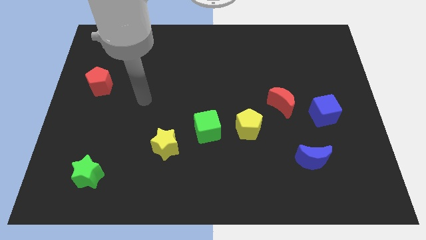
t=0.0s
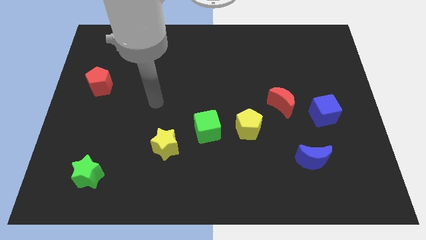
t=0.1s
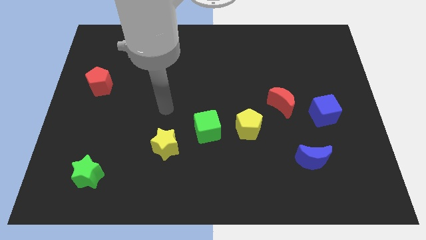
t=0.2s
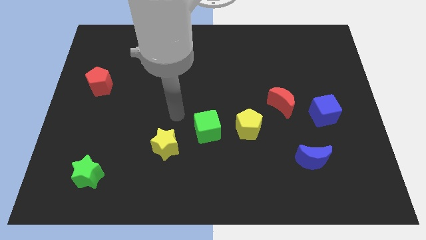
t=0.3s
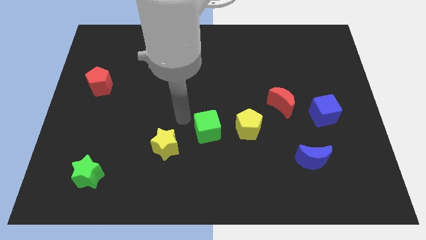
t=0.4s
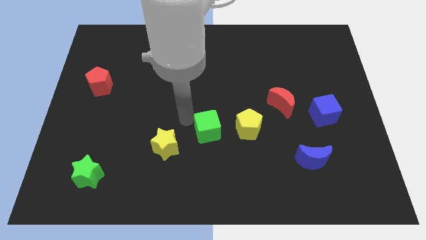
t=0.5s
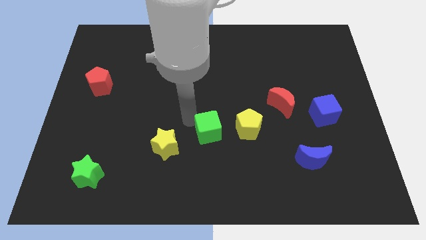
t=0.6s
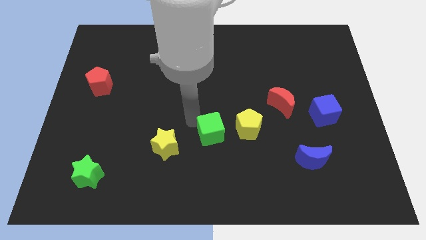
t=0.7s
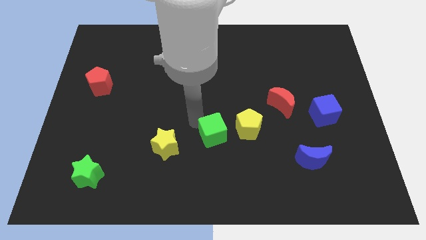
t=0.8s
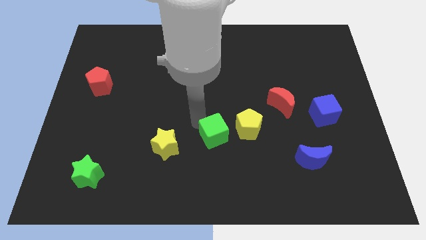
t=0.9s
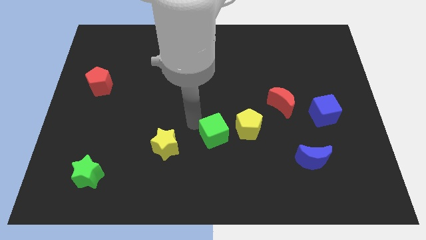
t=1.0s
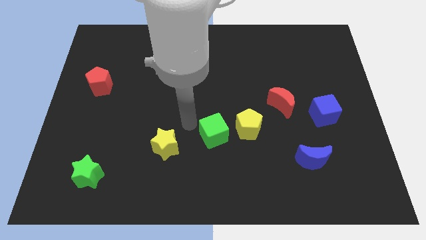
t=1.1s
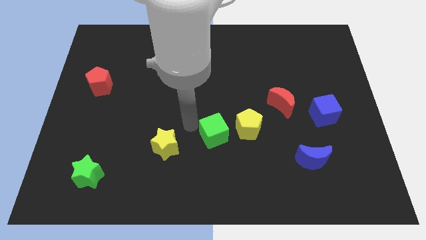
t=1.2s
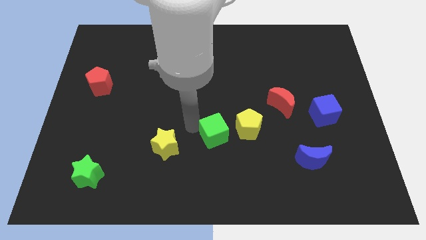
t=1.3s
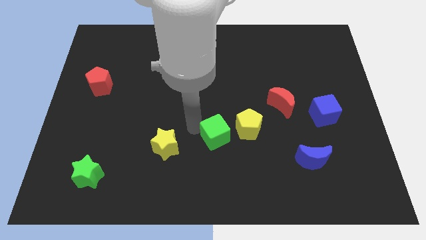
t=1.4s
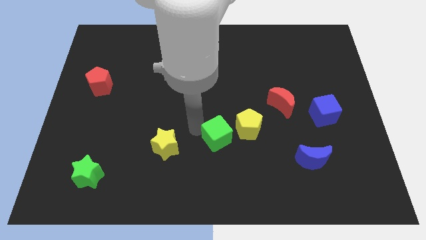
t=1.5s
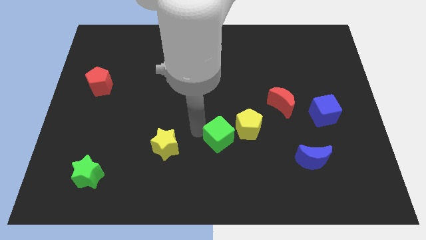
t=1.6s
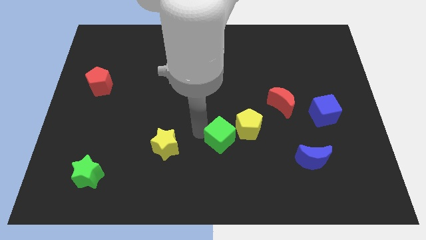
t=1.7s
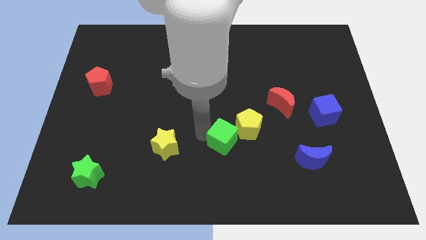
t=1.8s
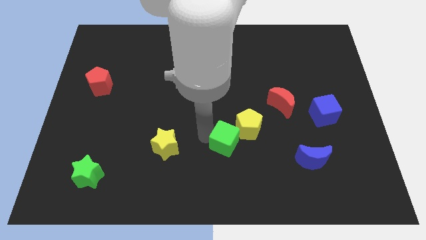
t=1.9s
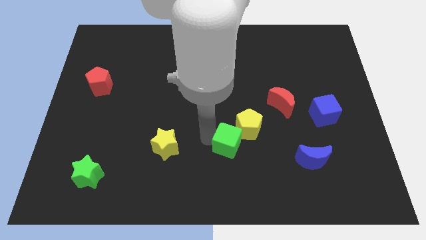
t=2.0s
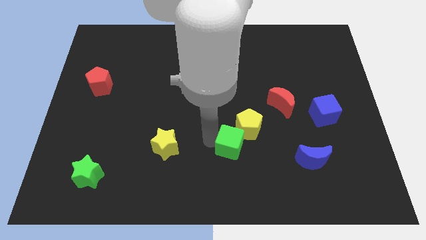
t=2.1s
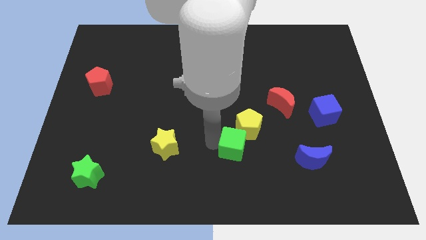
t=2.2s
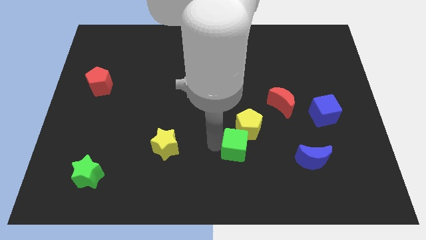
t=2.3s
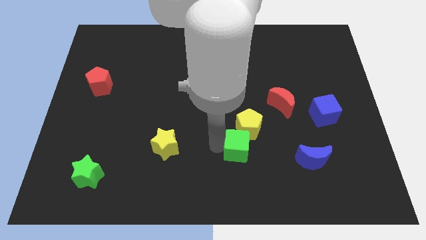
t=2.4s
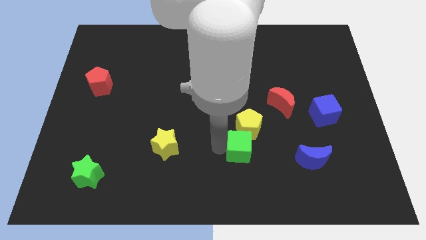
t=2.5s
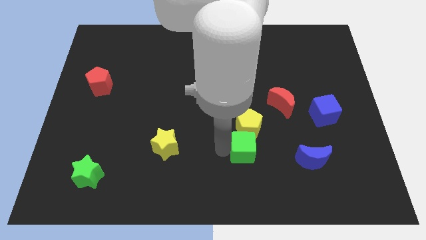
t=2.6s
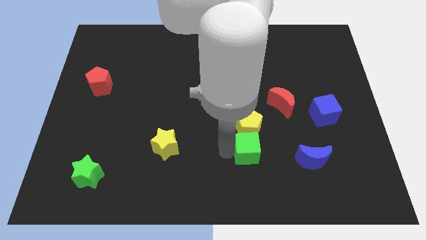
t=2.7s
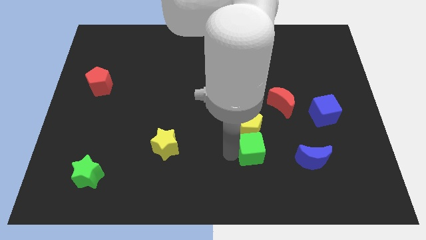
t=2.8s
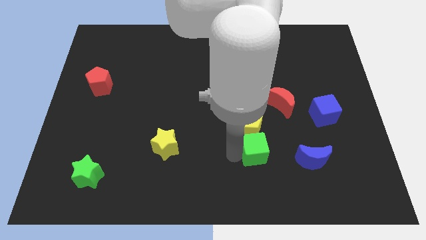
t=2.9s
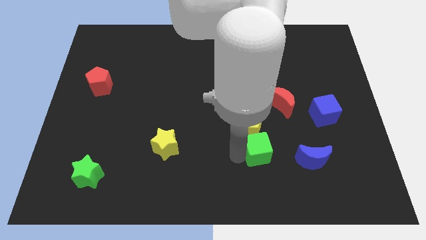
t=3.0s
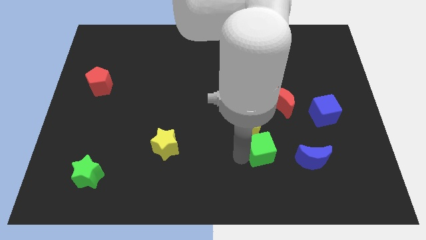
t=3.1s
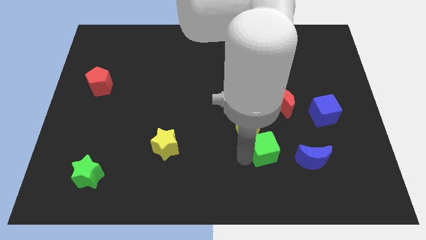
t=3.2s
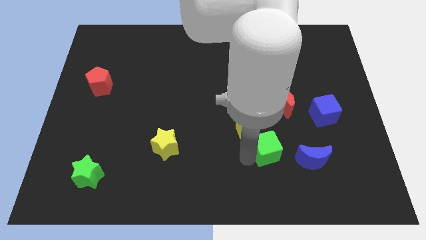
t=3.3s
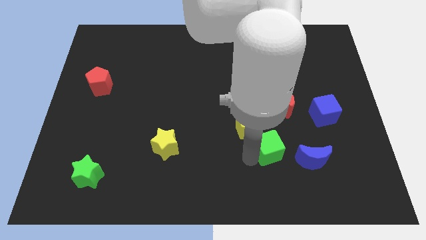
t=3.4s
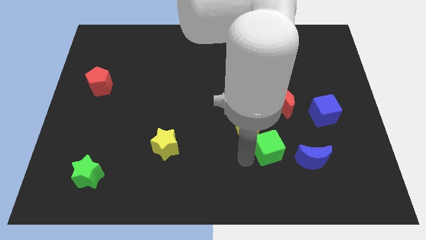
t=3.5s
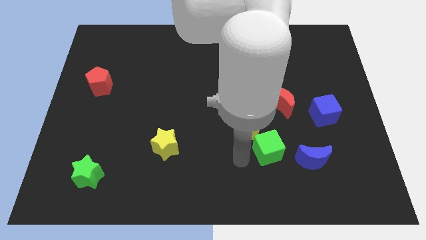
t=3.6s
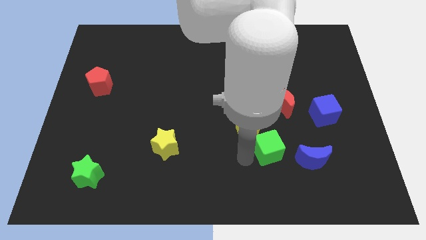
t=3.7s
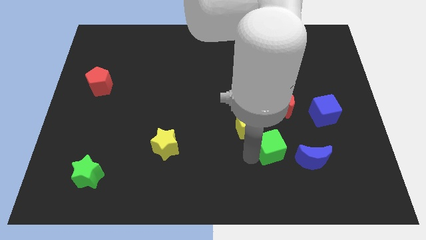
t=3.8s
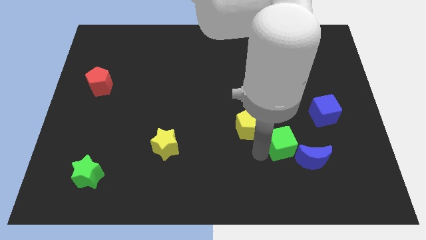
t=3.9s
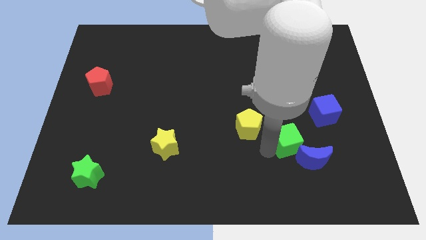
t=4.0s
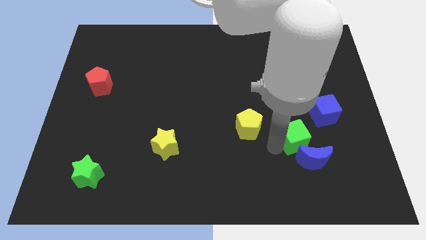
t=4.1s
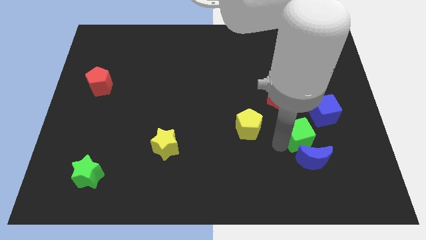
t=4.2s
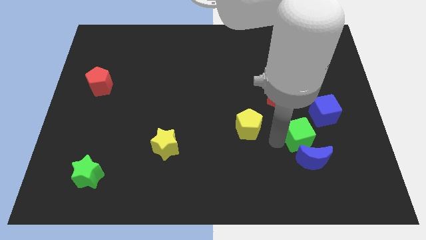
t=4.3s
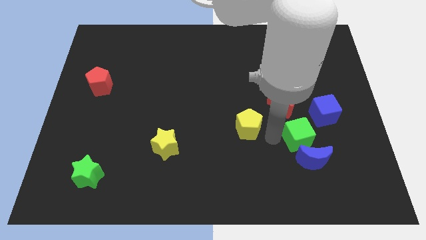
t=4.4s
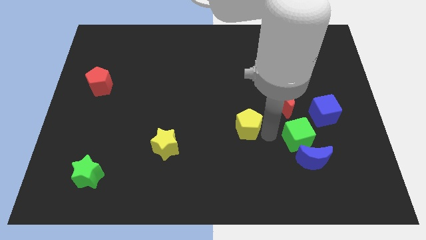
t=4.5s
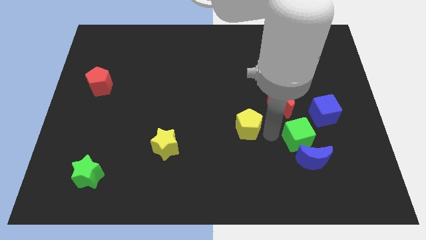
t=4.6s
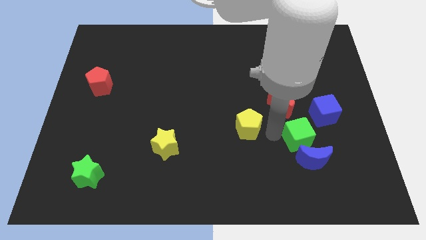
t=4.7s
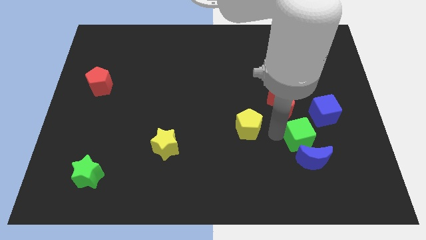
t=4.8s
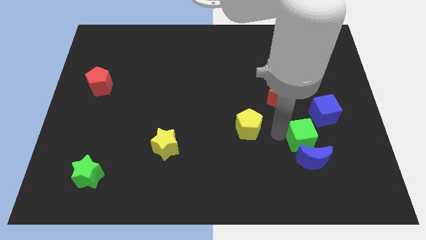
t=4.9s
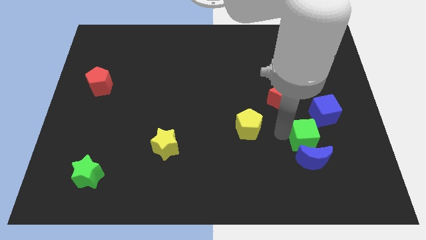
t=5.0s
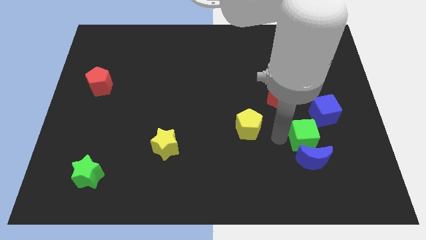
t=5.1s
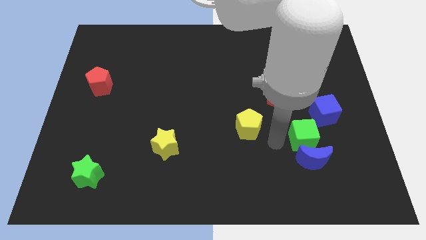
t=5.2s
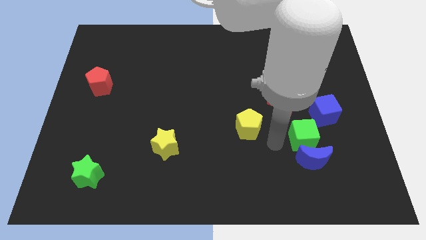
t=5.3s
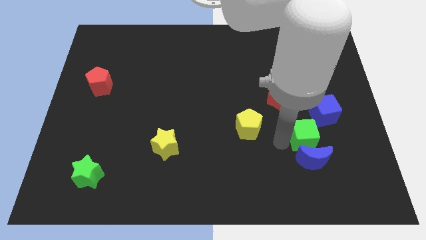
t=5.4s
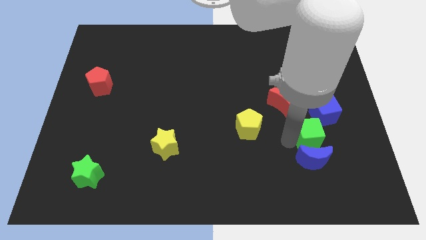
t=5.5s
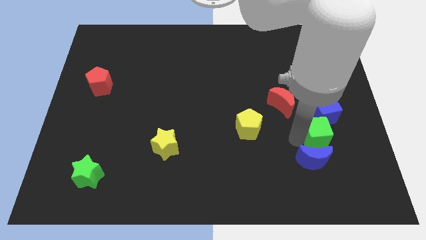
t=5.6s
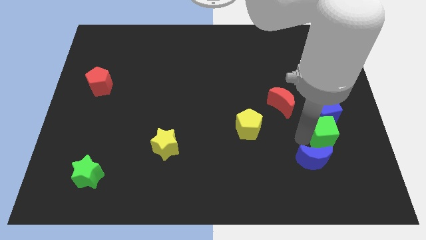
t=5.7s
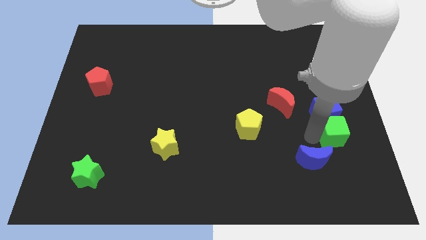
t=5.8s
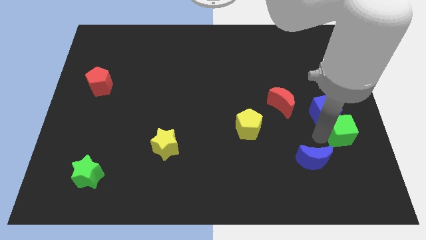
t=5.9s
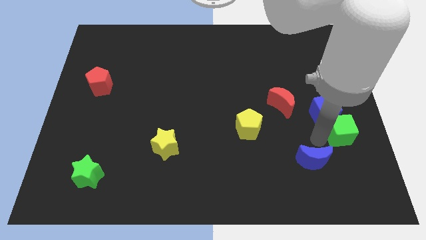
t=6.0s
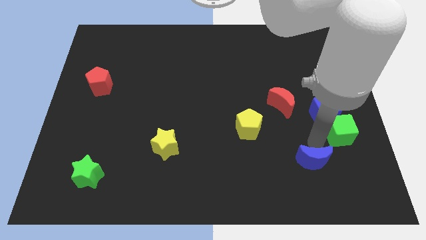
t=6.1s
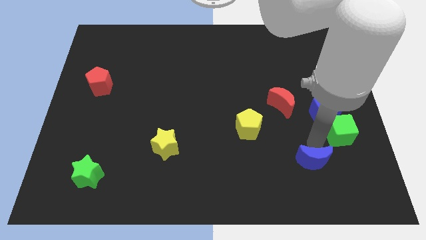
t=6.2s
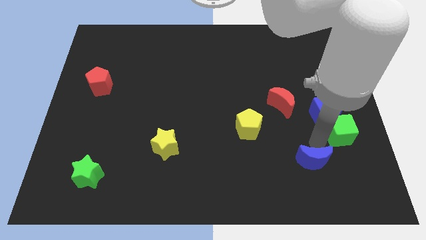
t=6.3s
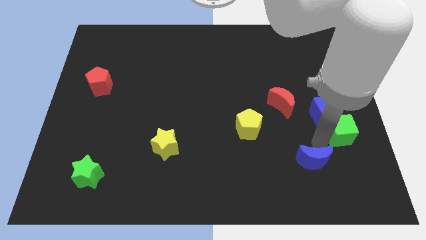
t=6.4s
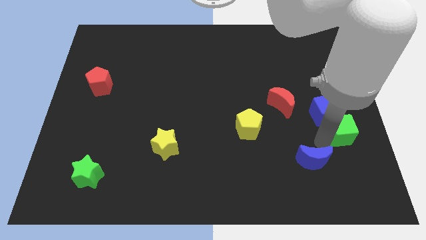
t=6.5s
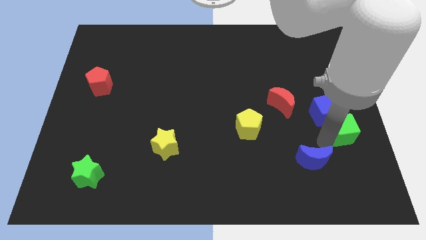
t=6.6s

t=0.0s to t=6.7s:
move the green cube to the center right
